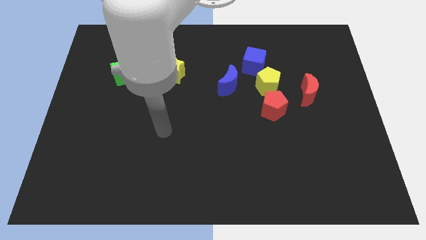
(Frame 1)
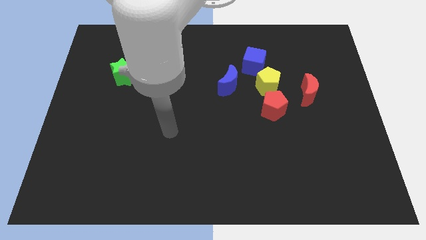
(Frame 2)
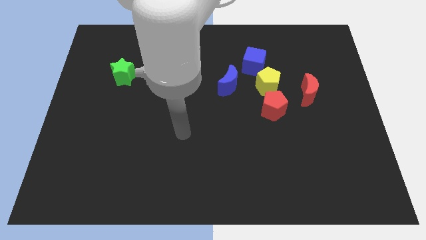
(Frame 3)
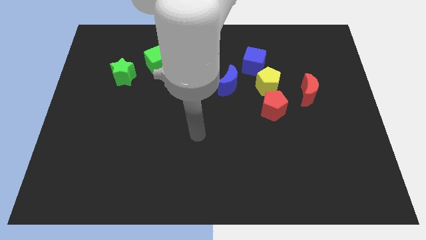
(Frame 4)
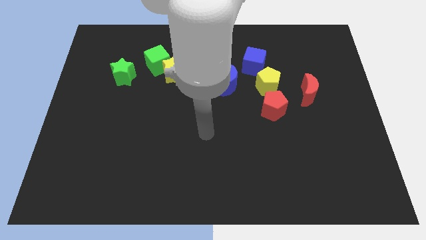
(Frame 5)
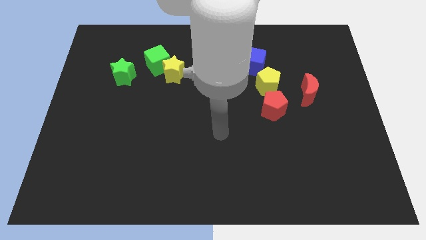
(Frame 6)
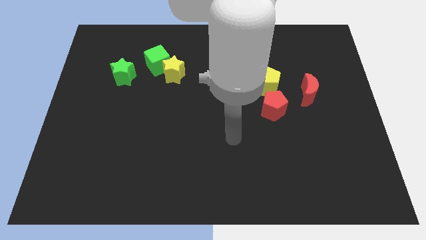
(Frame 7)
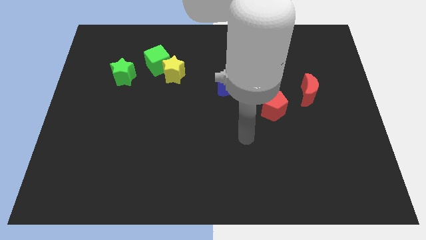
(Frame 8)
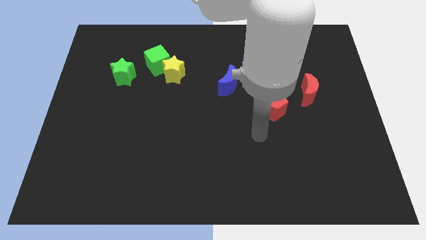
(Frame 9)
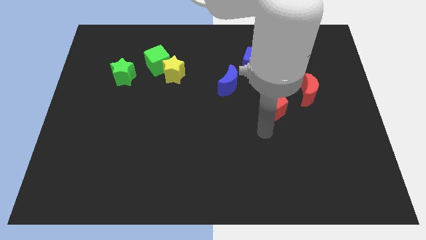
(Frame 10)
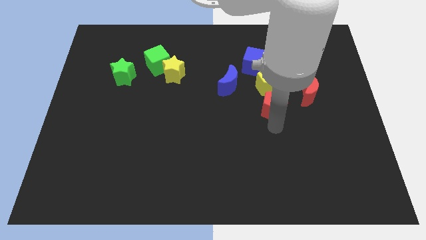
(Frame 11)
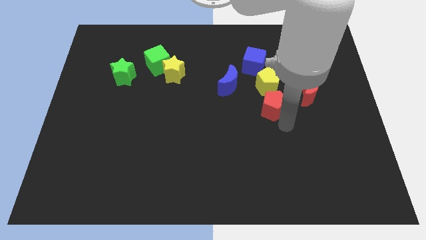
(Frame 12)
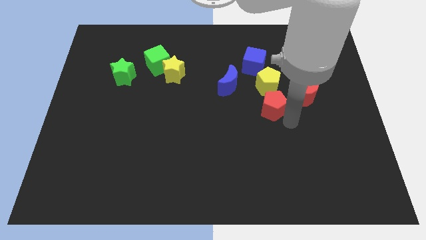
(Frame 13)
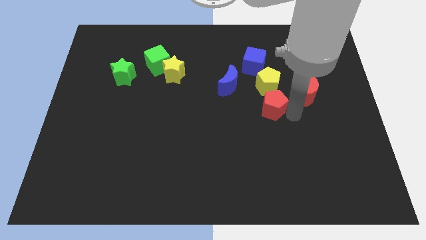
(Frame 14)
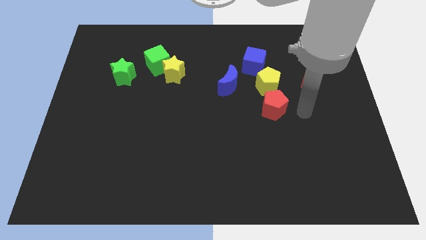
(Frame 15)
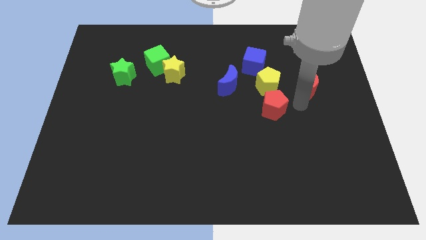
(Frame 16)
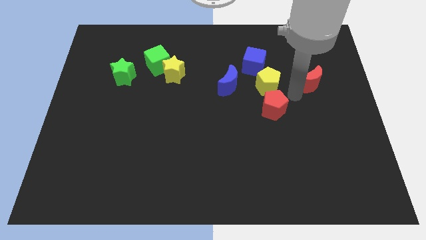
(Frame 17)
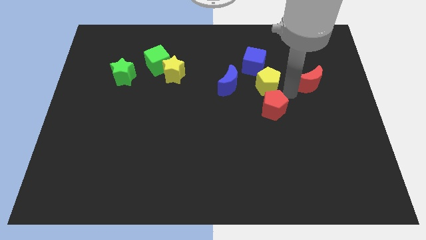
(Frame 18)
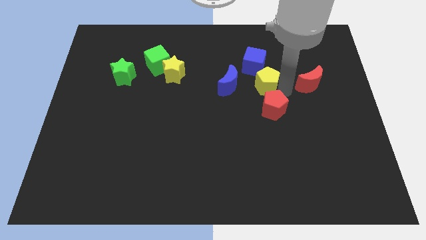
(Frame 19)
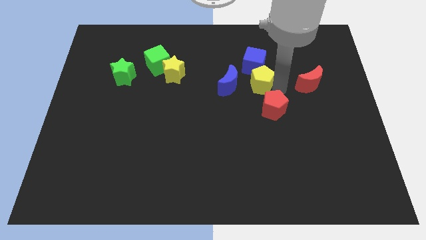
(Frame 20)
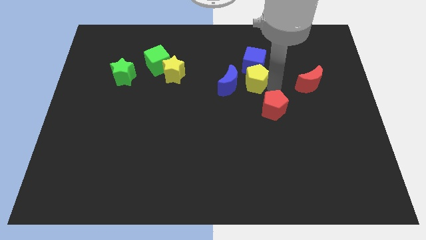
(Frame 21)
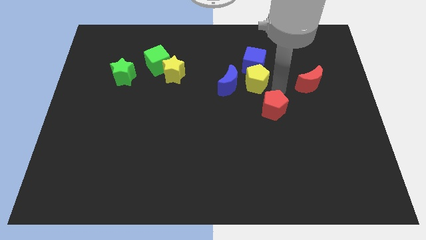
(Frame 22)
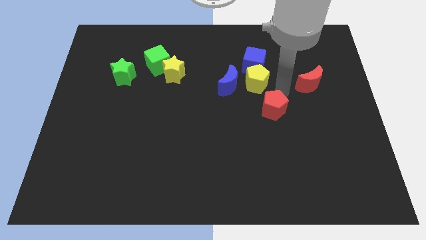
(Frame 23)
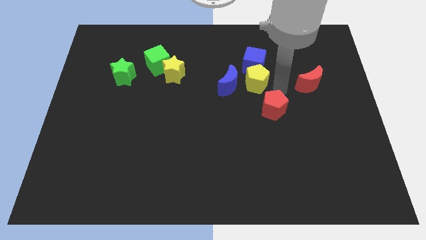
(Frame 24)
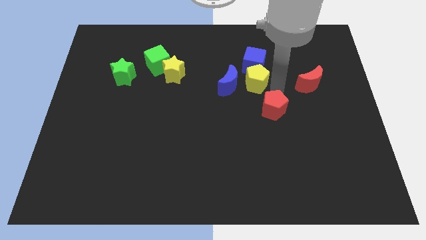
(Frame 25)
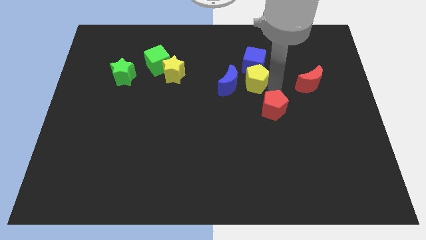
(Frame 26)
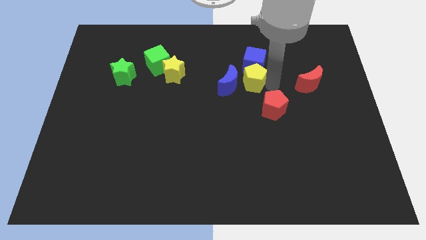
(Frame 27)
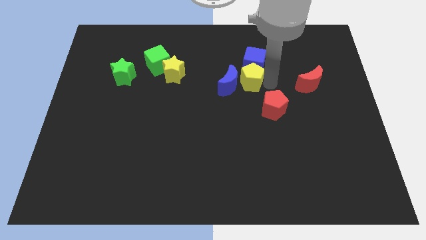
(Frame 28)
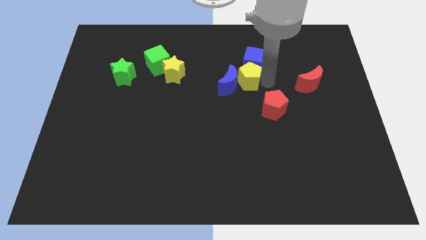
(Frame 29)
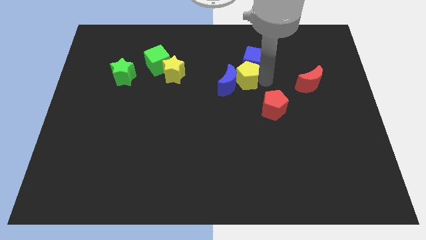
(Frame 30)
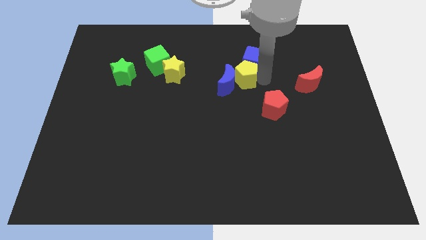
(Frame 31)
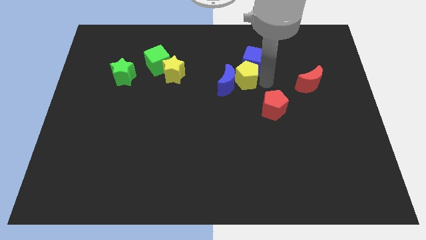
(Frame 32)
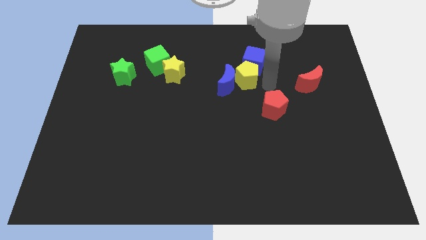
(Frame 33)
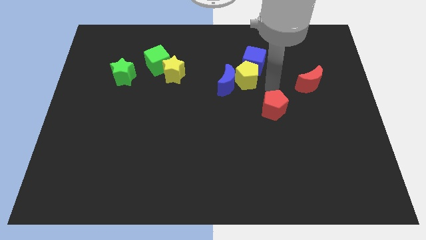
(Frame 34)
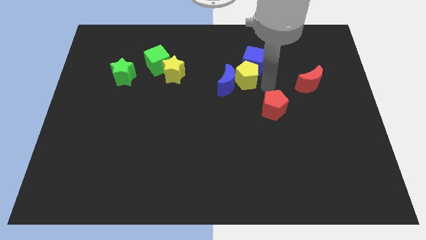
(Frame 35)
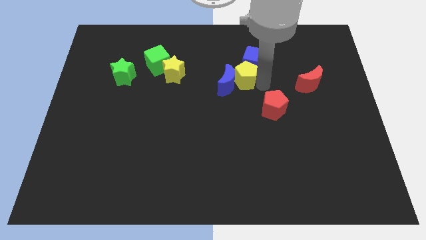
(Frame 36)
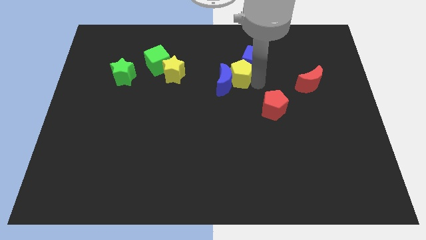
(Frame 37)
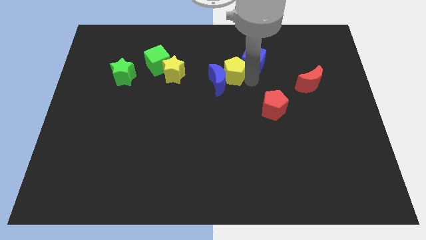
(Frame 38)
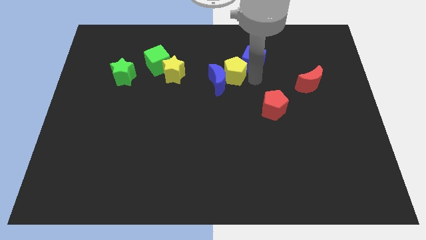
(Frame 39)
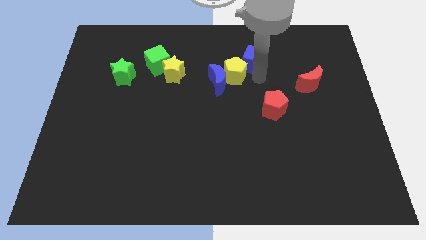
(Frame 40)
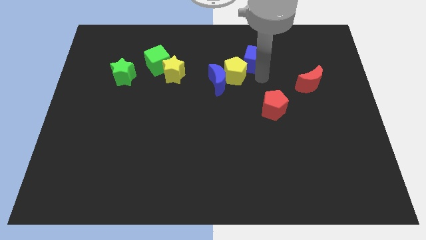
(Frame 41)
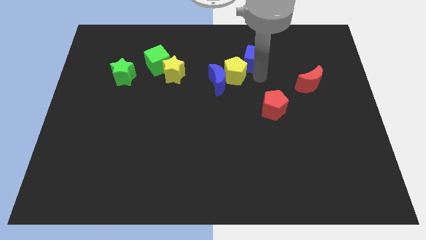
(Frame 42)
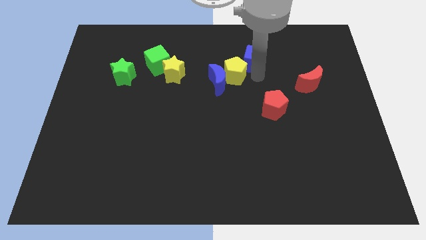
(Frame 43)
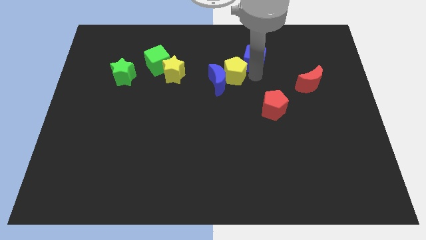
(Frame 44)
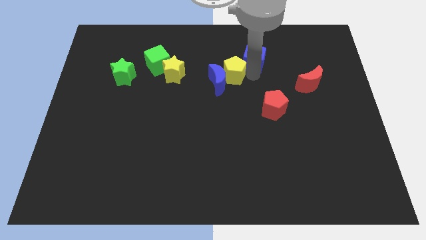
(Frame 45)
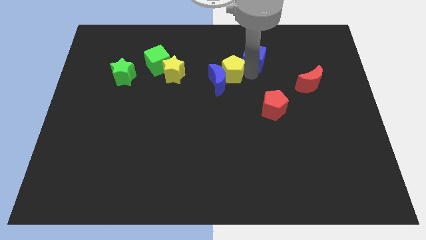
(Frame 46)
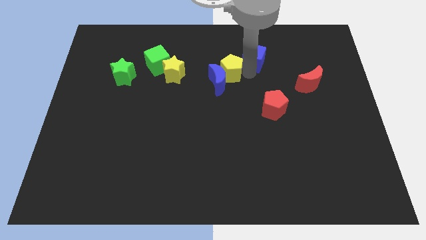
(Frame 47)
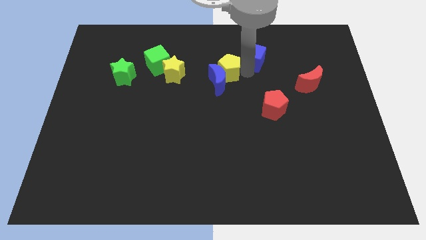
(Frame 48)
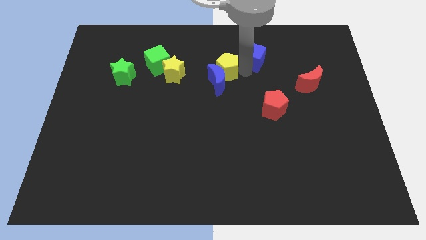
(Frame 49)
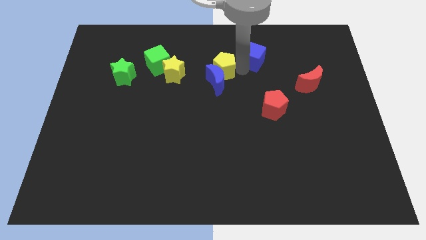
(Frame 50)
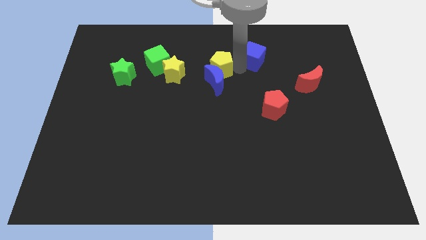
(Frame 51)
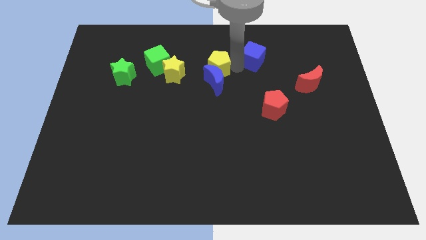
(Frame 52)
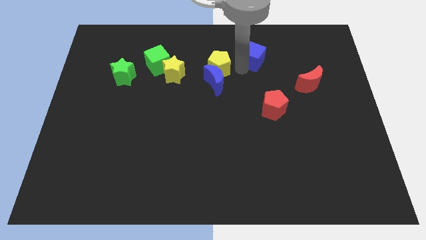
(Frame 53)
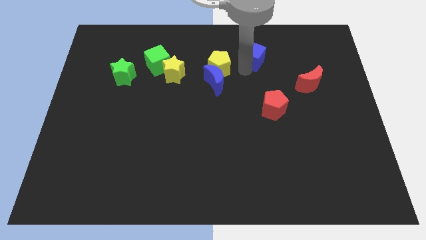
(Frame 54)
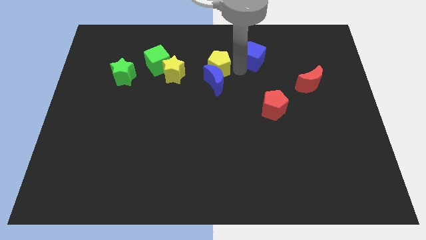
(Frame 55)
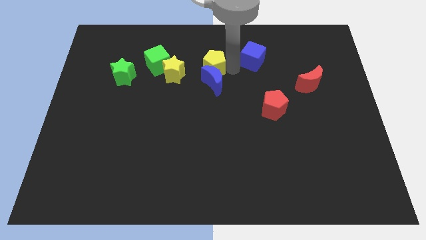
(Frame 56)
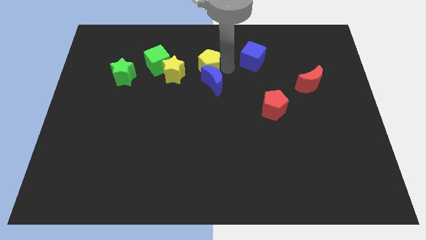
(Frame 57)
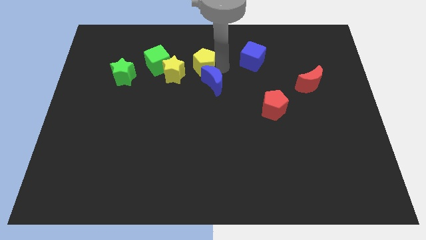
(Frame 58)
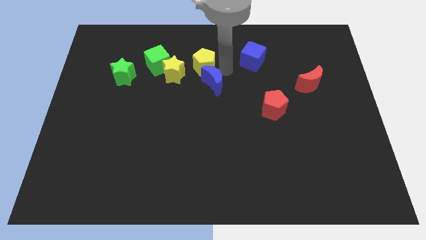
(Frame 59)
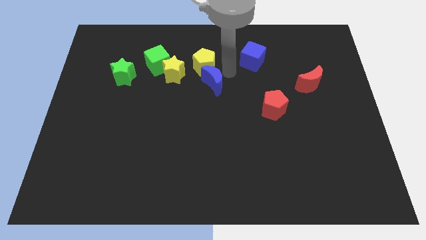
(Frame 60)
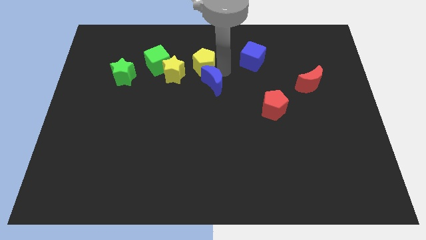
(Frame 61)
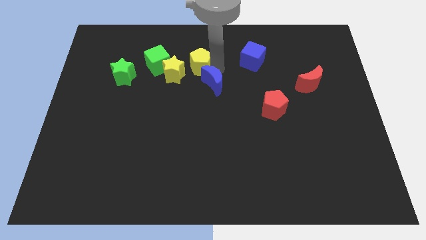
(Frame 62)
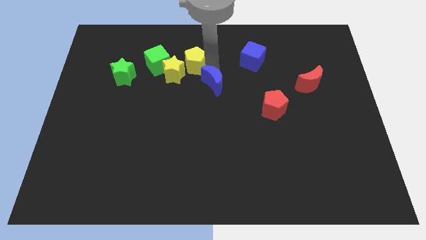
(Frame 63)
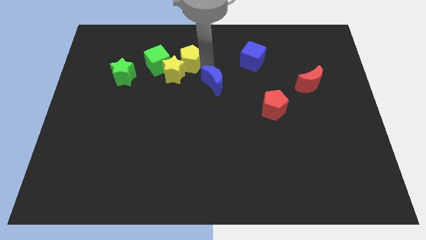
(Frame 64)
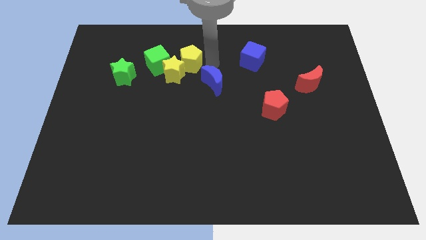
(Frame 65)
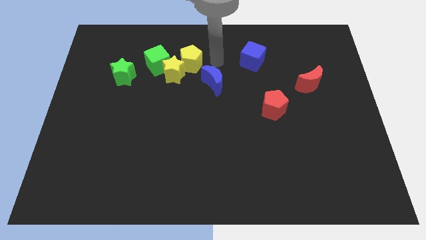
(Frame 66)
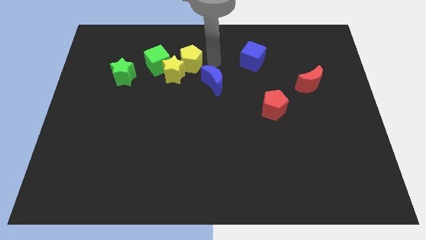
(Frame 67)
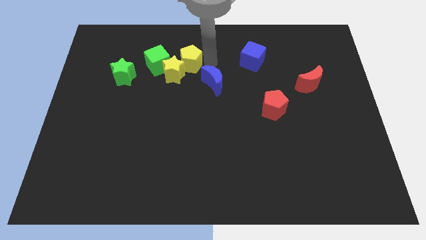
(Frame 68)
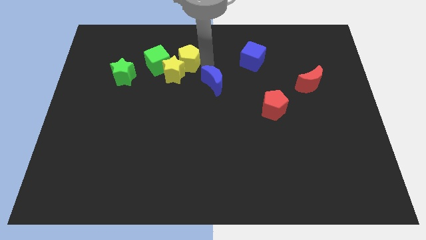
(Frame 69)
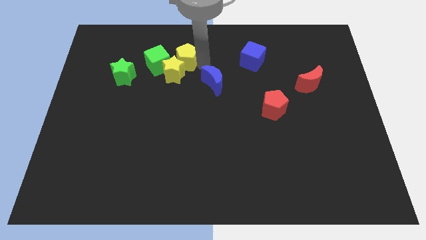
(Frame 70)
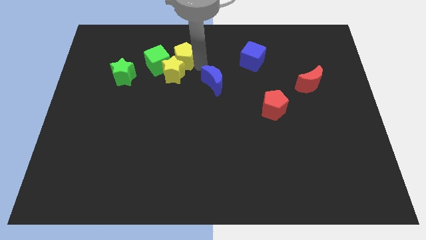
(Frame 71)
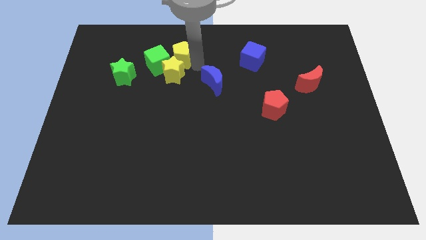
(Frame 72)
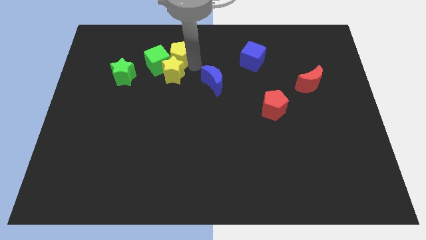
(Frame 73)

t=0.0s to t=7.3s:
put the yellow pentagon close to the green cube

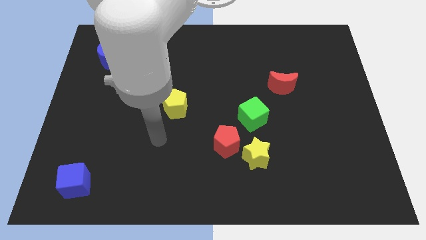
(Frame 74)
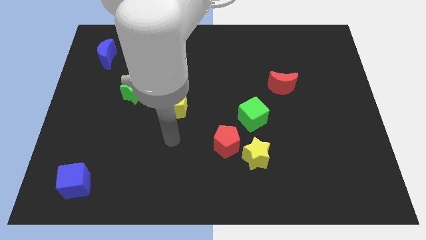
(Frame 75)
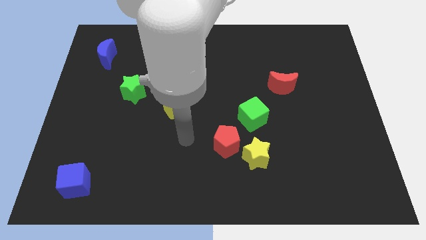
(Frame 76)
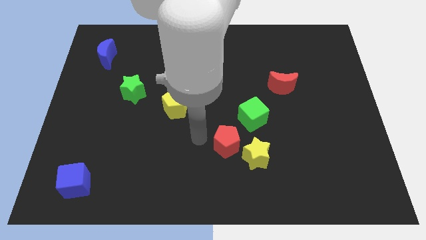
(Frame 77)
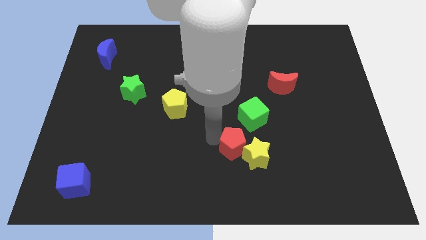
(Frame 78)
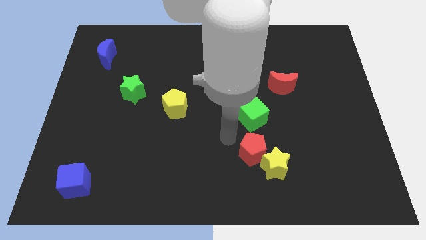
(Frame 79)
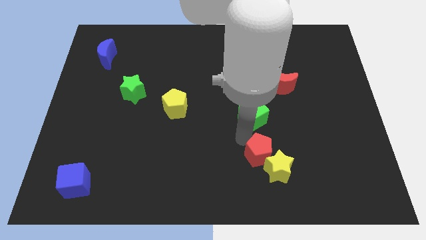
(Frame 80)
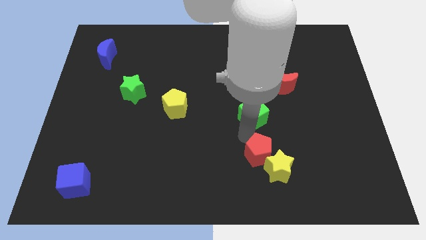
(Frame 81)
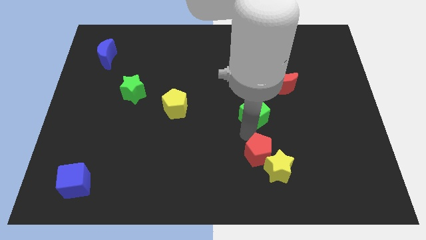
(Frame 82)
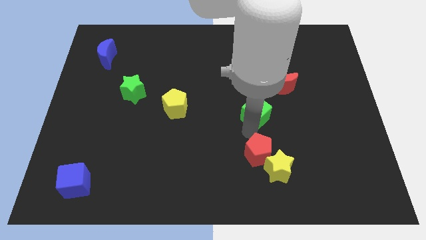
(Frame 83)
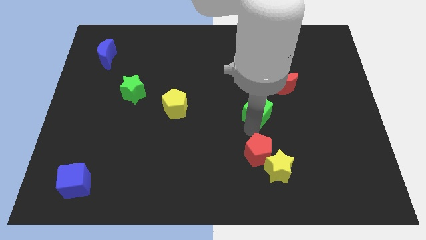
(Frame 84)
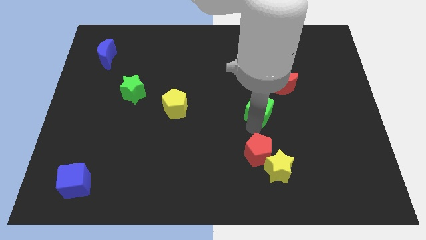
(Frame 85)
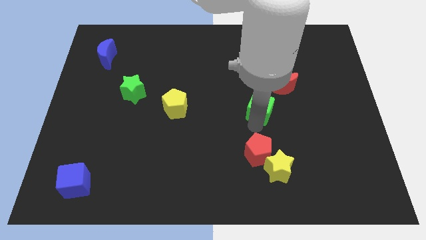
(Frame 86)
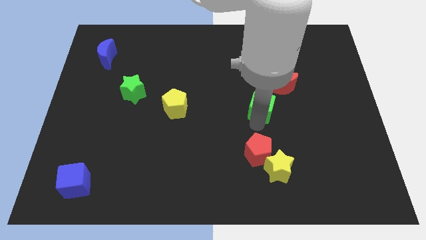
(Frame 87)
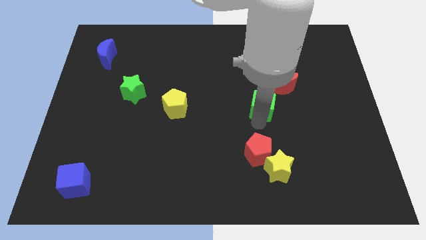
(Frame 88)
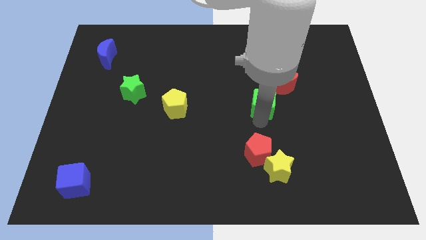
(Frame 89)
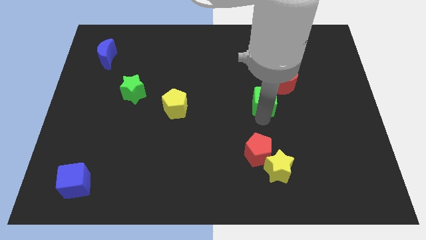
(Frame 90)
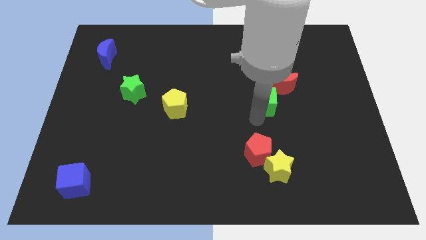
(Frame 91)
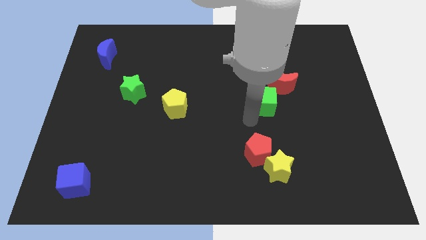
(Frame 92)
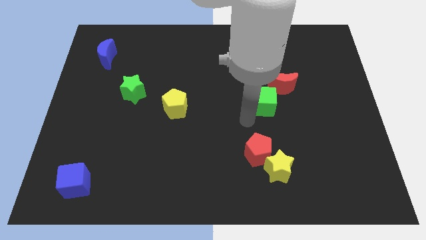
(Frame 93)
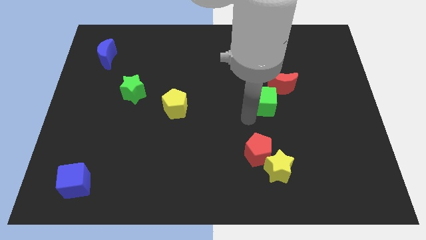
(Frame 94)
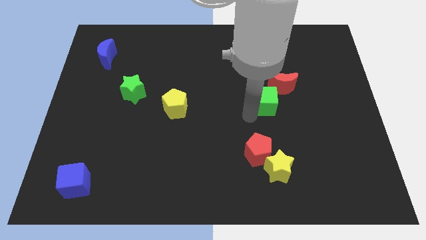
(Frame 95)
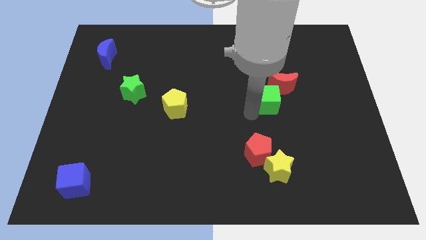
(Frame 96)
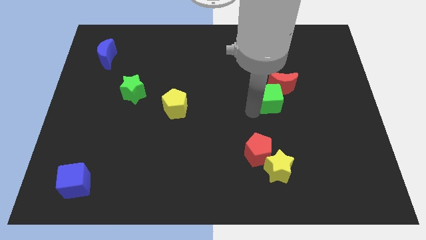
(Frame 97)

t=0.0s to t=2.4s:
push the green cube towards the red moon
